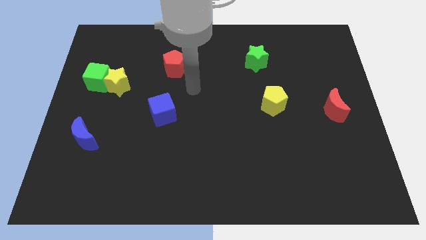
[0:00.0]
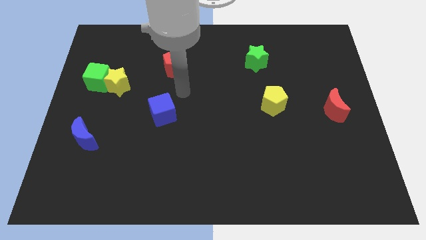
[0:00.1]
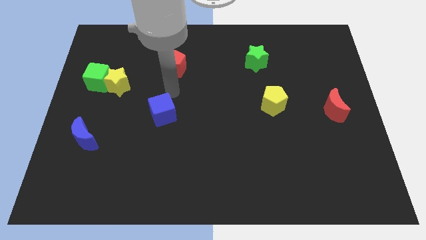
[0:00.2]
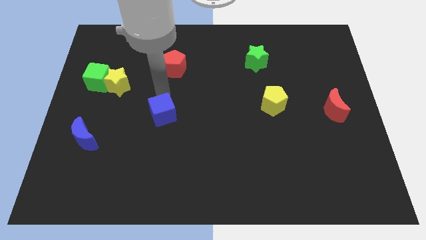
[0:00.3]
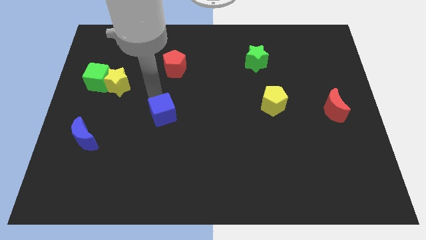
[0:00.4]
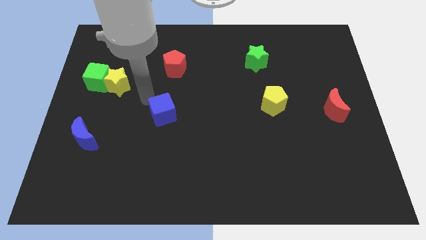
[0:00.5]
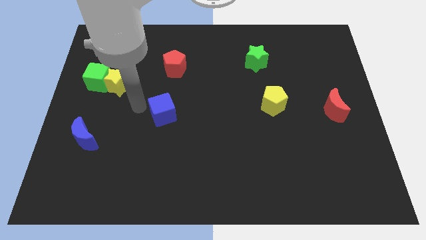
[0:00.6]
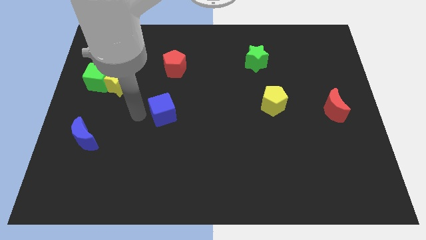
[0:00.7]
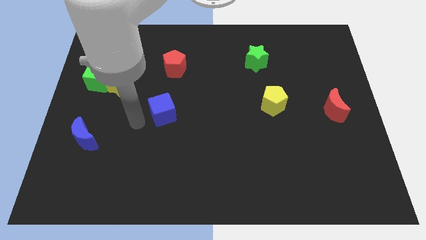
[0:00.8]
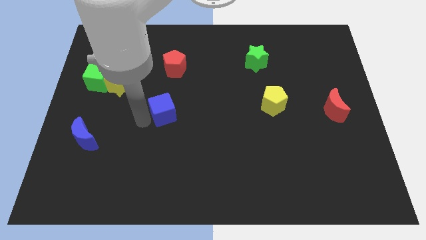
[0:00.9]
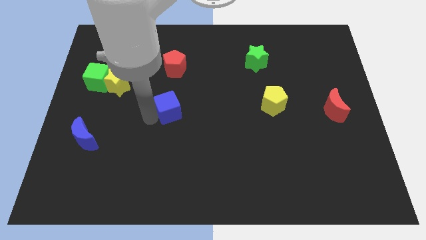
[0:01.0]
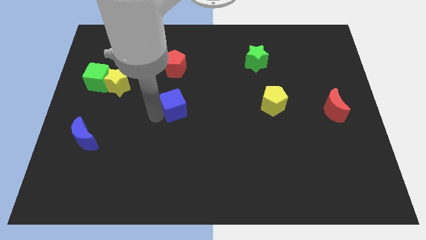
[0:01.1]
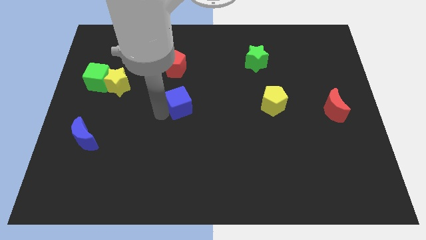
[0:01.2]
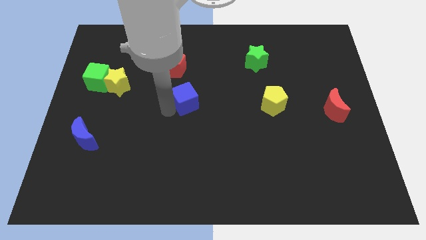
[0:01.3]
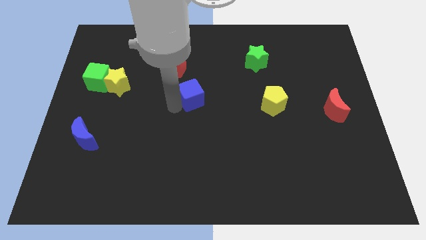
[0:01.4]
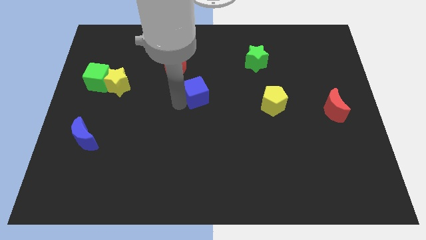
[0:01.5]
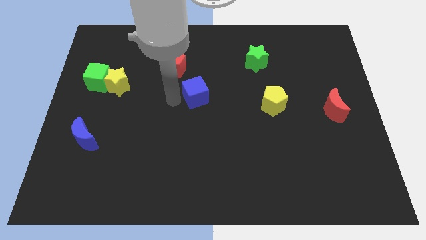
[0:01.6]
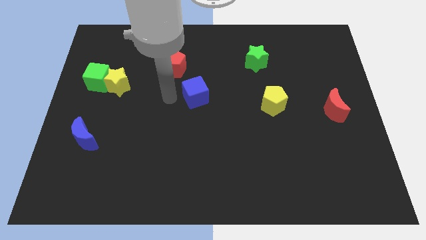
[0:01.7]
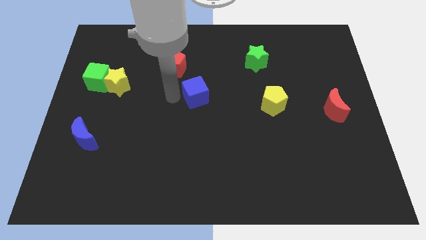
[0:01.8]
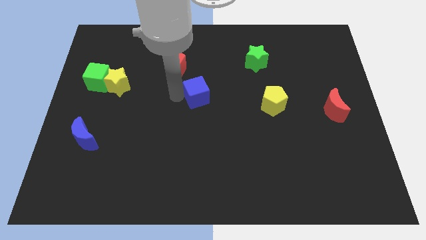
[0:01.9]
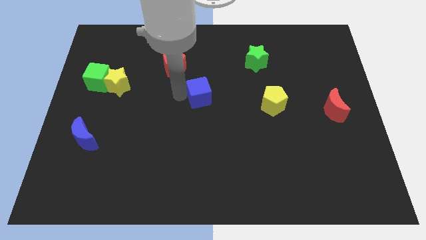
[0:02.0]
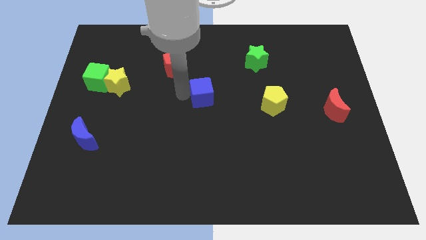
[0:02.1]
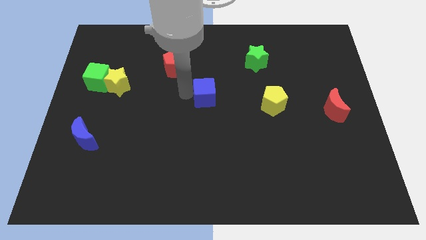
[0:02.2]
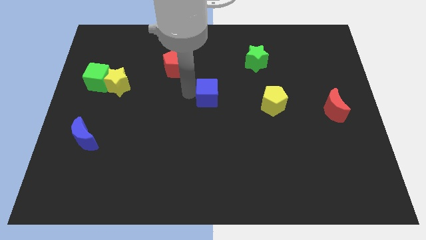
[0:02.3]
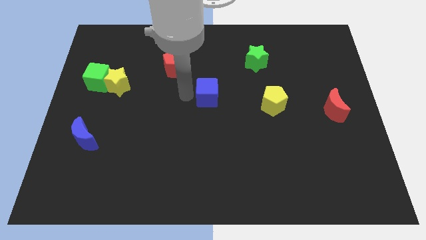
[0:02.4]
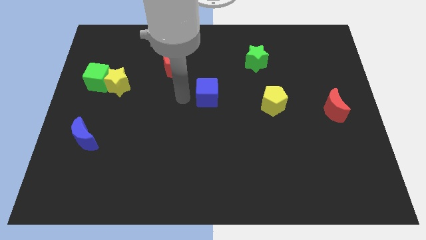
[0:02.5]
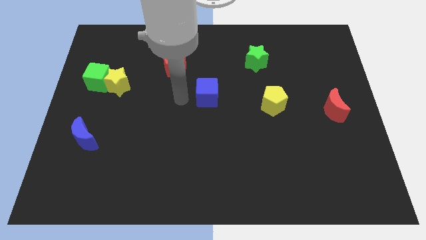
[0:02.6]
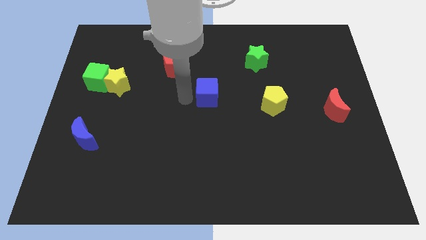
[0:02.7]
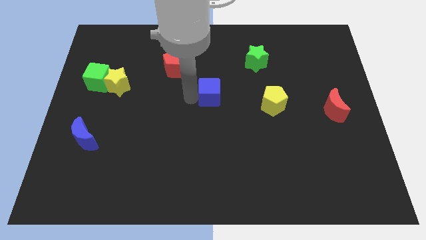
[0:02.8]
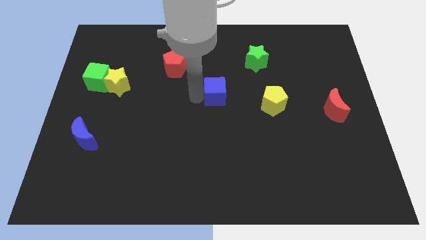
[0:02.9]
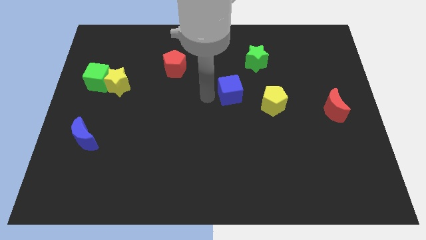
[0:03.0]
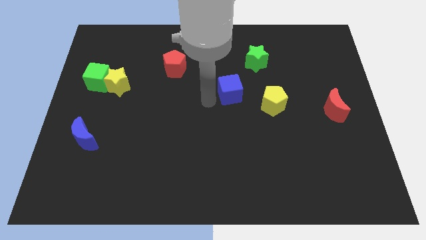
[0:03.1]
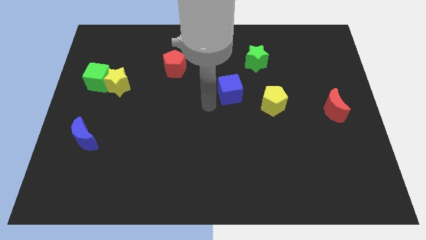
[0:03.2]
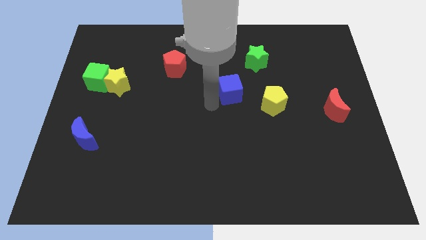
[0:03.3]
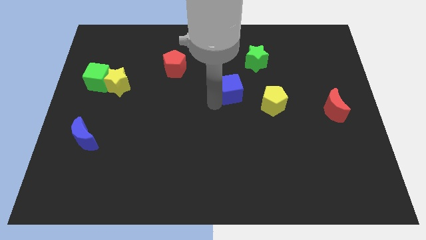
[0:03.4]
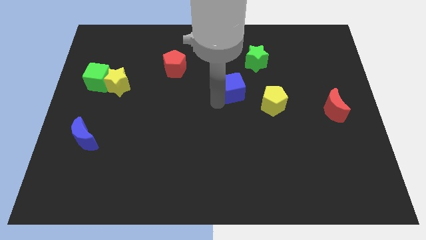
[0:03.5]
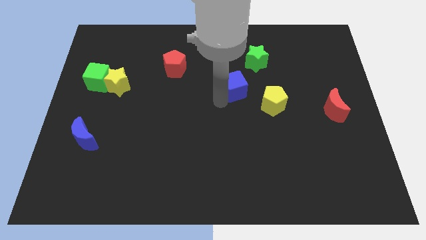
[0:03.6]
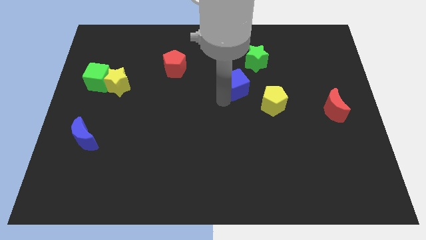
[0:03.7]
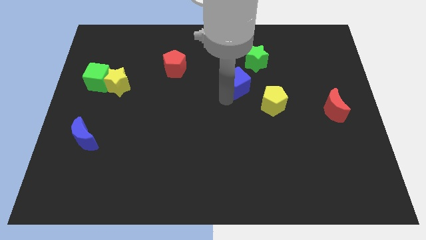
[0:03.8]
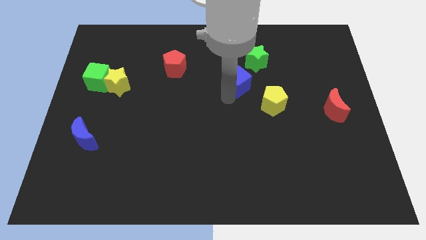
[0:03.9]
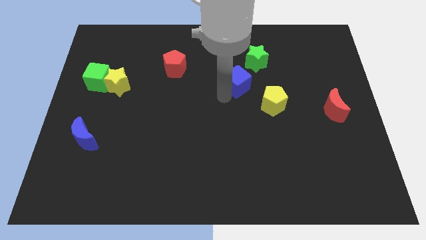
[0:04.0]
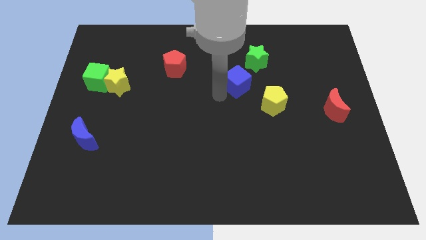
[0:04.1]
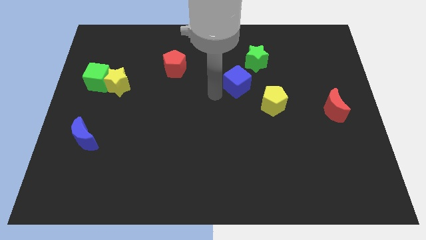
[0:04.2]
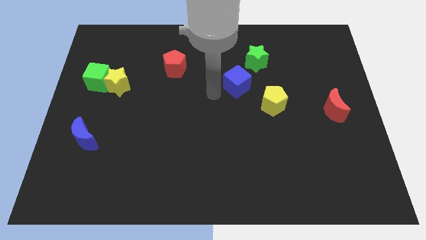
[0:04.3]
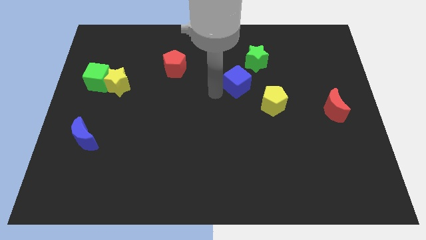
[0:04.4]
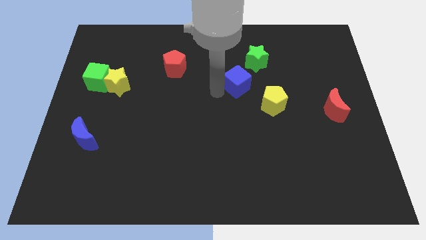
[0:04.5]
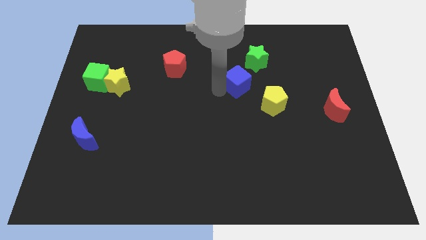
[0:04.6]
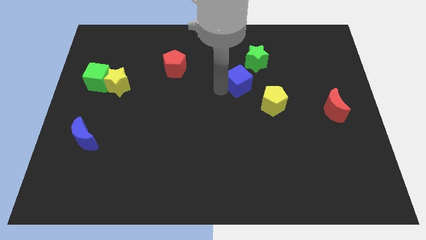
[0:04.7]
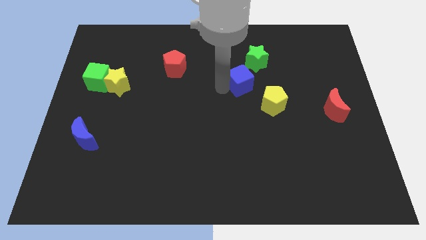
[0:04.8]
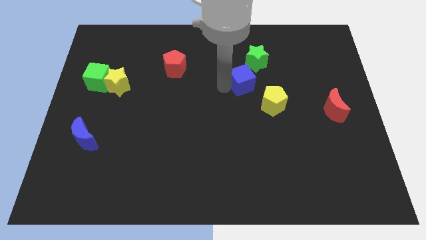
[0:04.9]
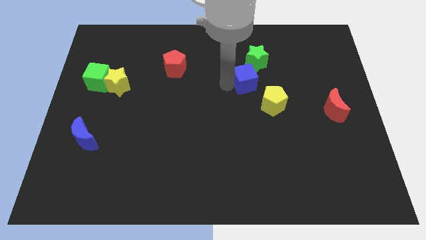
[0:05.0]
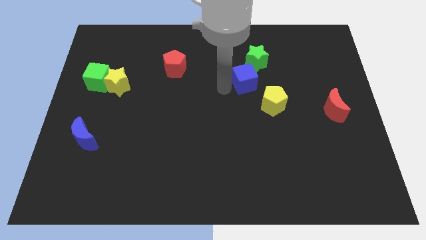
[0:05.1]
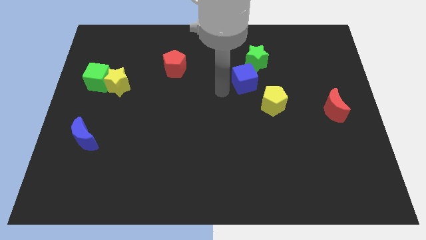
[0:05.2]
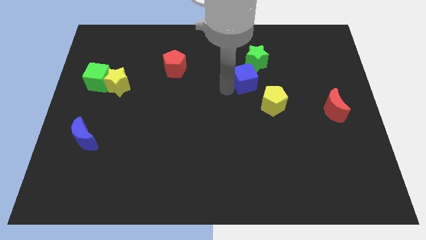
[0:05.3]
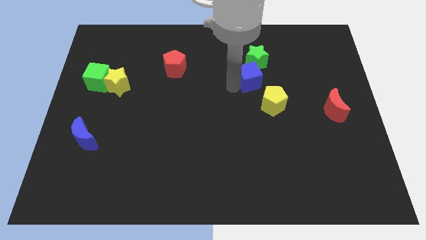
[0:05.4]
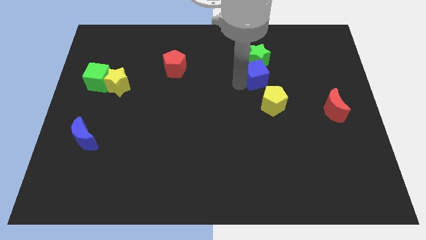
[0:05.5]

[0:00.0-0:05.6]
put the blue cube to the top of the yellow pentagon

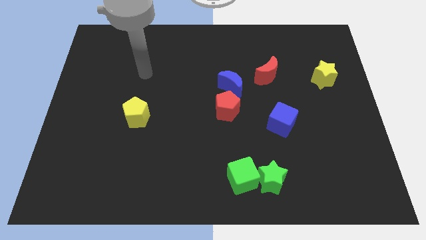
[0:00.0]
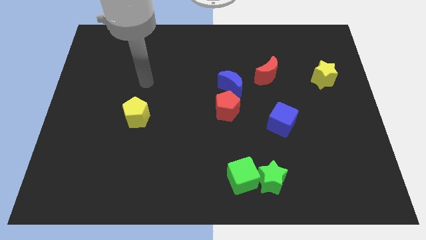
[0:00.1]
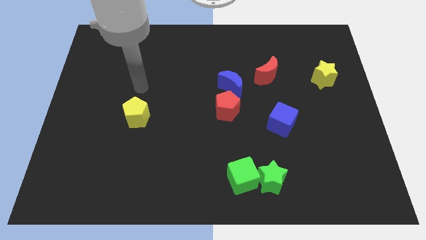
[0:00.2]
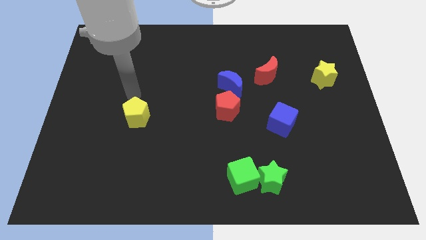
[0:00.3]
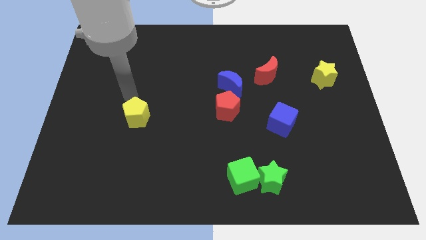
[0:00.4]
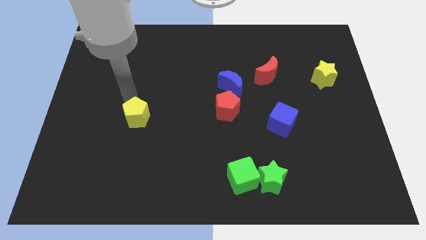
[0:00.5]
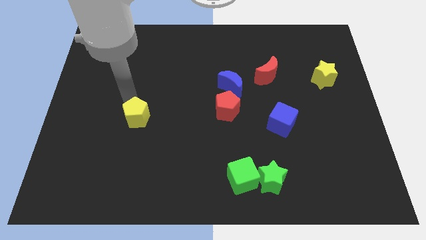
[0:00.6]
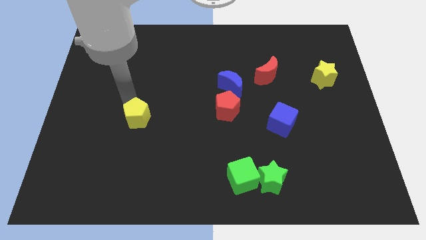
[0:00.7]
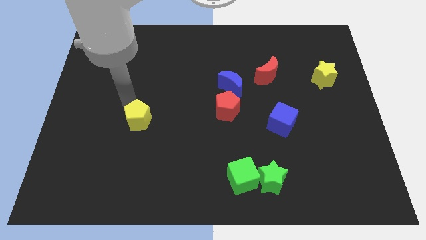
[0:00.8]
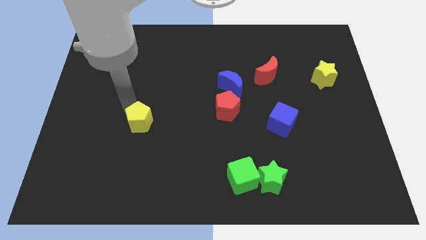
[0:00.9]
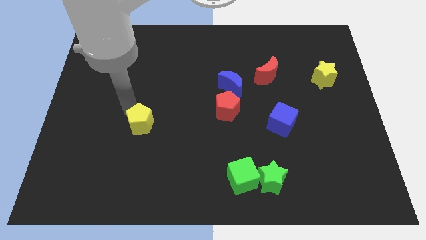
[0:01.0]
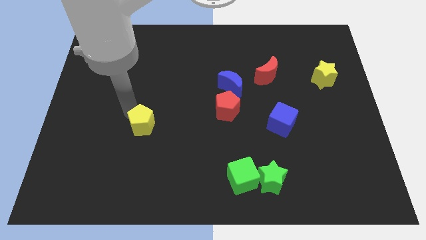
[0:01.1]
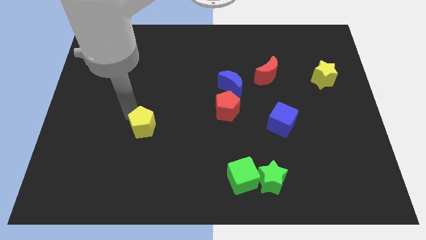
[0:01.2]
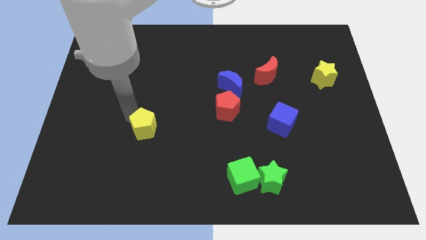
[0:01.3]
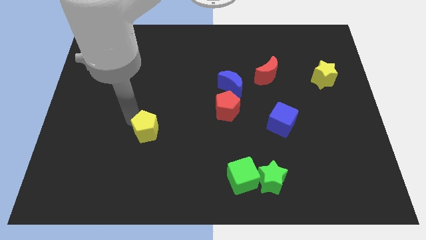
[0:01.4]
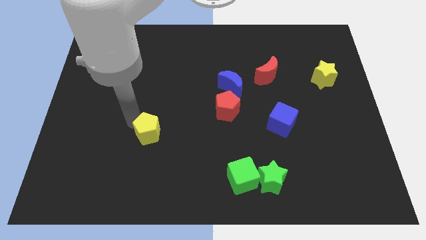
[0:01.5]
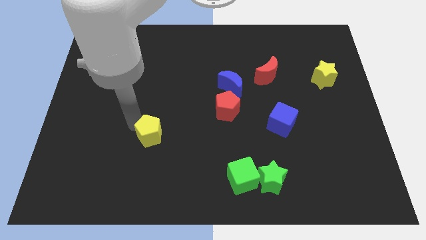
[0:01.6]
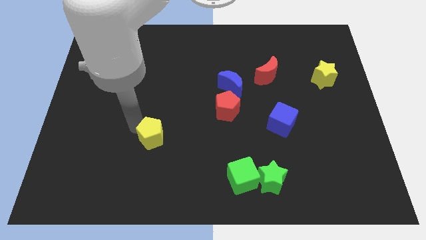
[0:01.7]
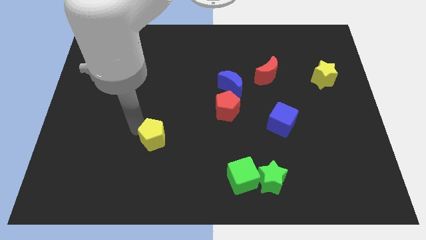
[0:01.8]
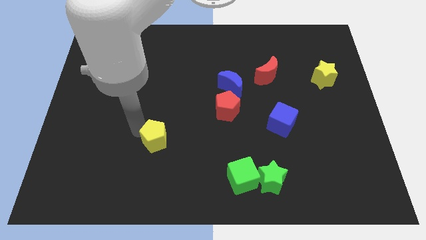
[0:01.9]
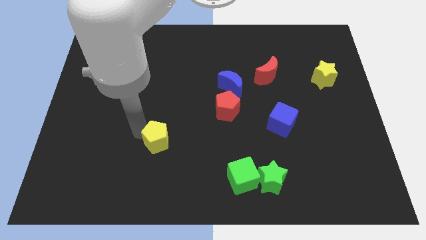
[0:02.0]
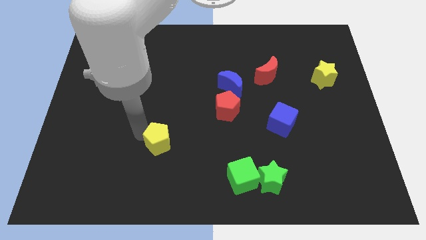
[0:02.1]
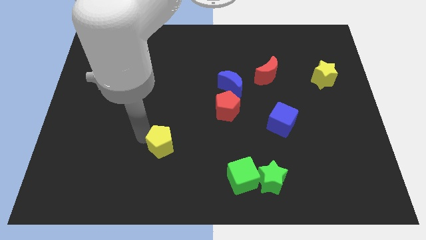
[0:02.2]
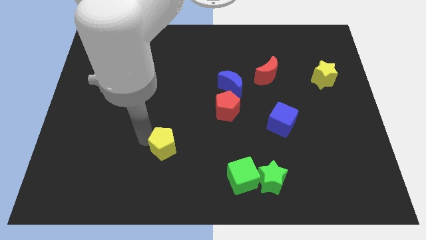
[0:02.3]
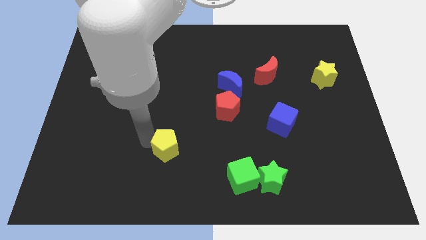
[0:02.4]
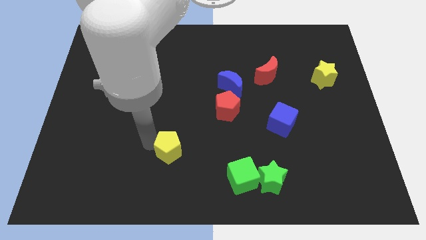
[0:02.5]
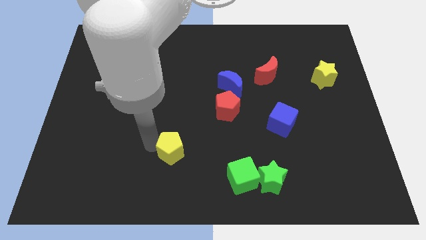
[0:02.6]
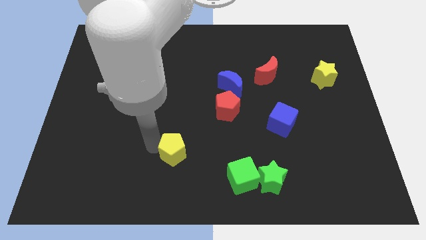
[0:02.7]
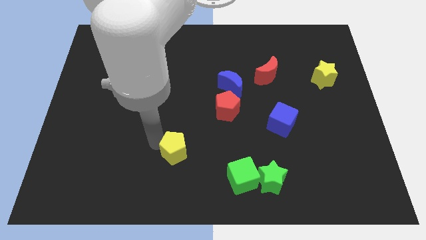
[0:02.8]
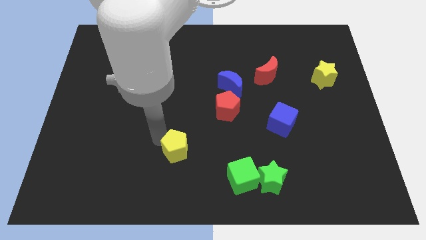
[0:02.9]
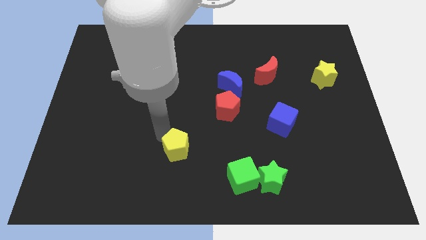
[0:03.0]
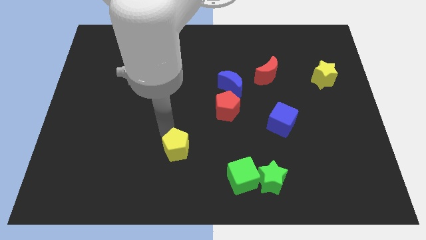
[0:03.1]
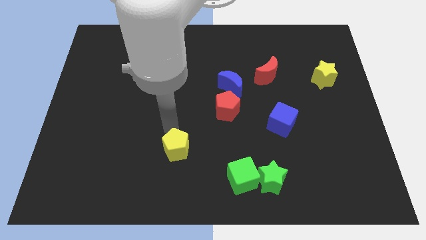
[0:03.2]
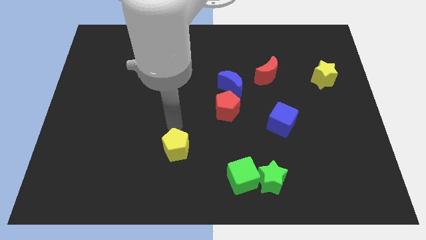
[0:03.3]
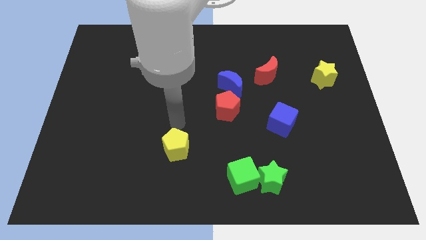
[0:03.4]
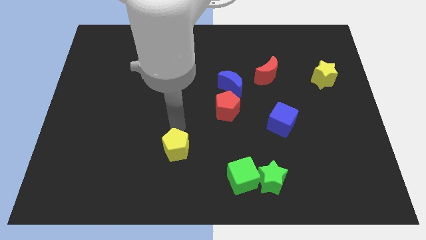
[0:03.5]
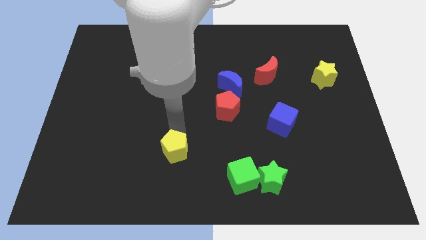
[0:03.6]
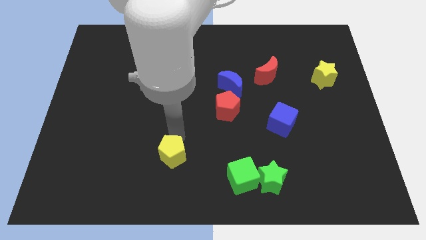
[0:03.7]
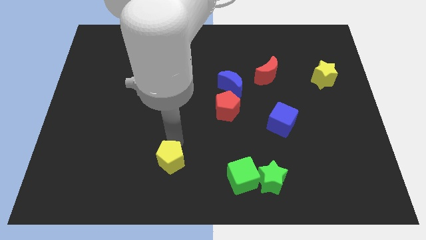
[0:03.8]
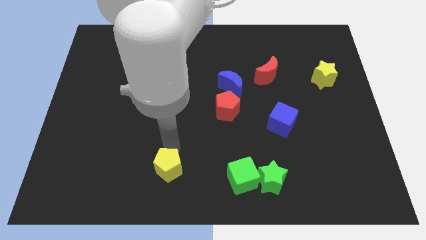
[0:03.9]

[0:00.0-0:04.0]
move the yellow pentagon to the left of the green cube
